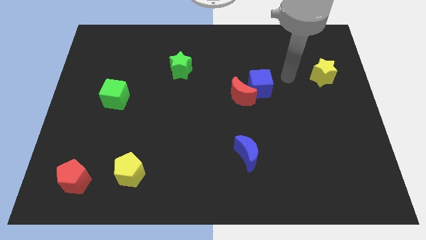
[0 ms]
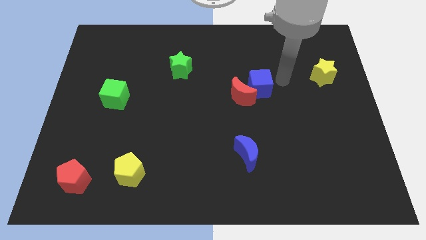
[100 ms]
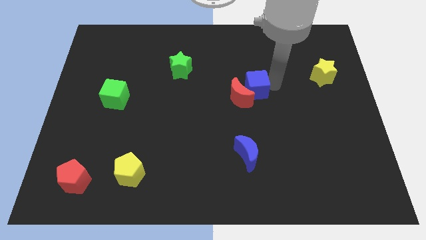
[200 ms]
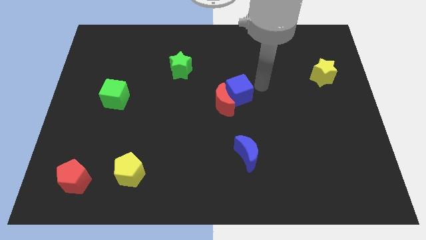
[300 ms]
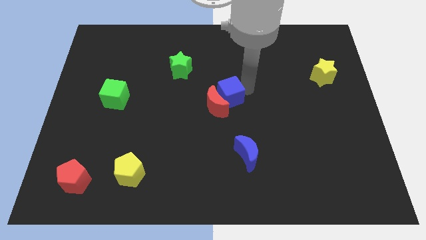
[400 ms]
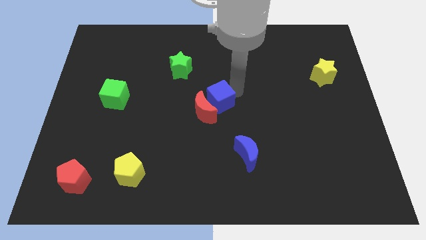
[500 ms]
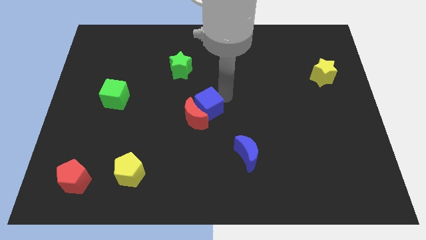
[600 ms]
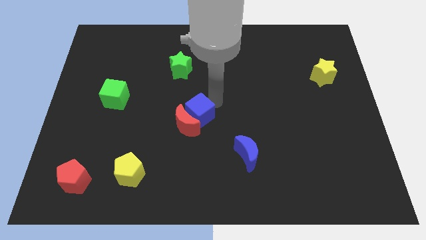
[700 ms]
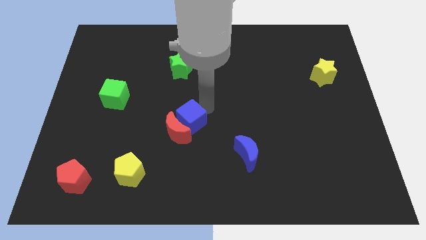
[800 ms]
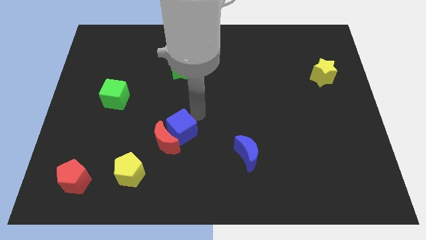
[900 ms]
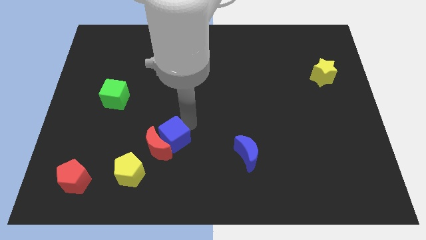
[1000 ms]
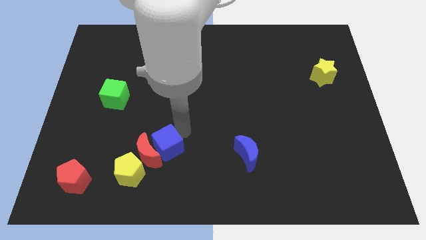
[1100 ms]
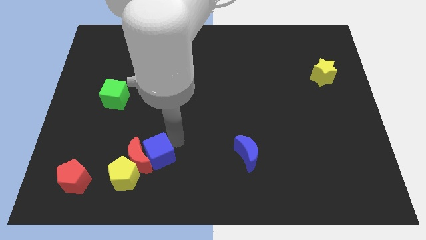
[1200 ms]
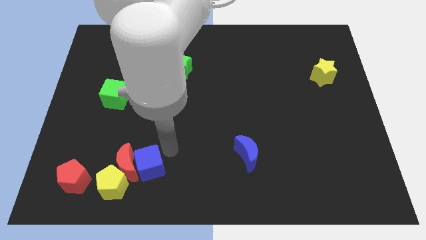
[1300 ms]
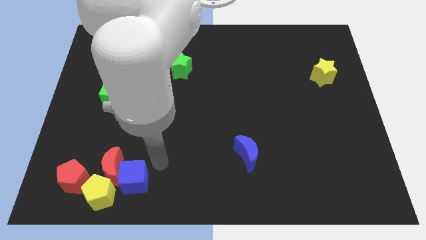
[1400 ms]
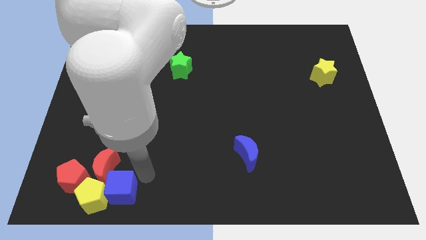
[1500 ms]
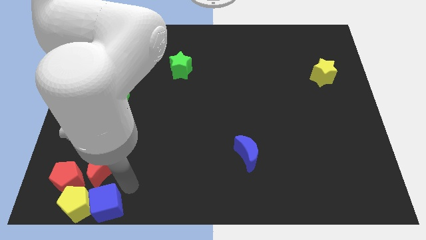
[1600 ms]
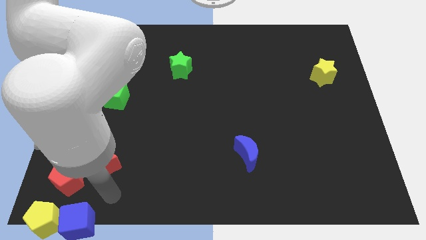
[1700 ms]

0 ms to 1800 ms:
separate the red moon from the blue cube

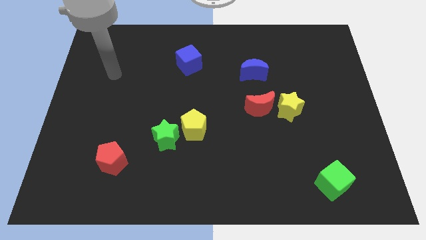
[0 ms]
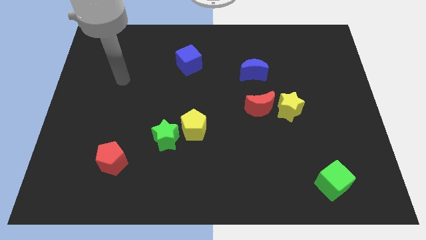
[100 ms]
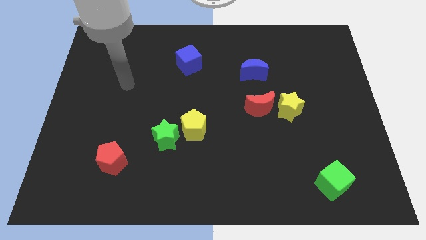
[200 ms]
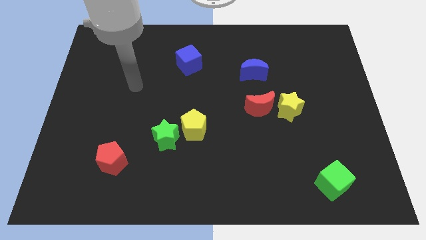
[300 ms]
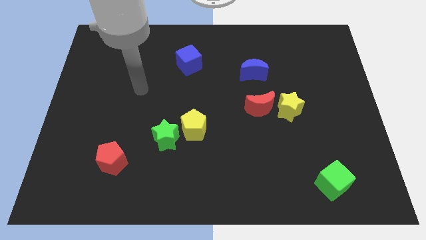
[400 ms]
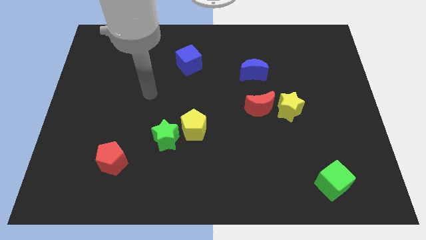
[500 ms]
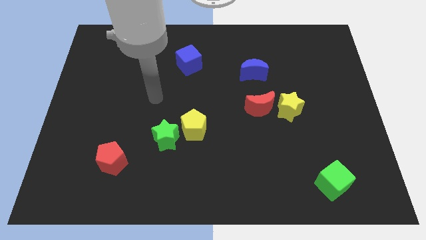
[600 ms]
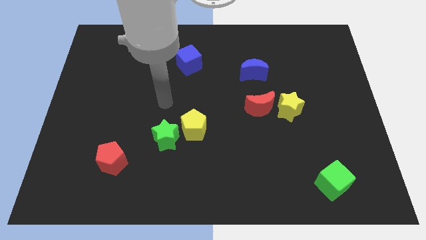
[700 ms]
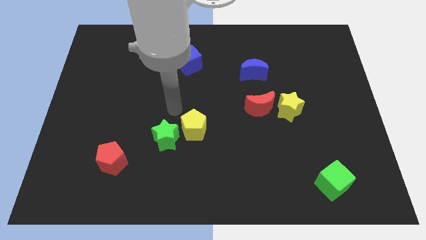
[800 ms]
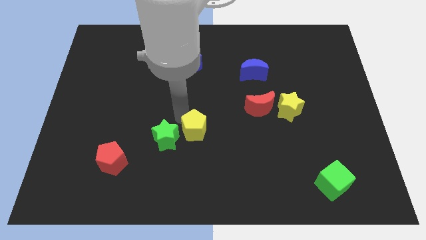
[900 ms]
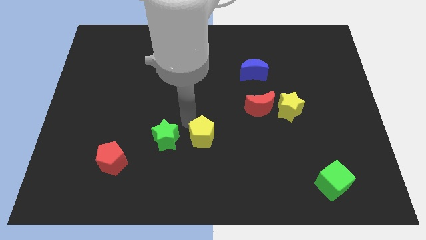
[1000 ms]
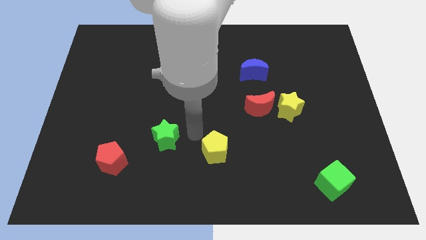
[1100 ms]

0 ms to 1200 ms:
separate the green star from the yellow pentagon

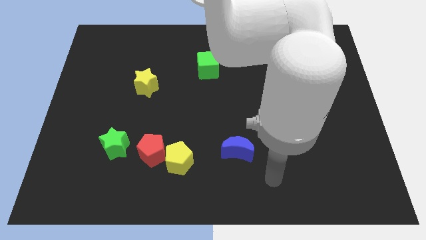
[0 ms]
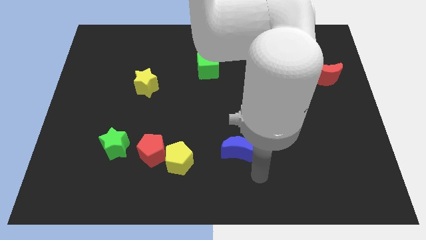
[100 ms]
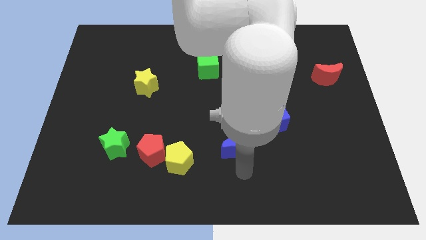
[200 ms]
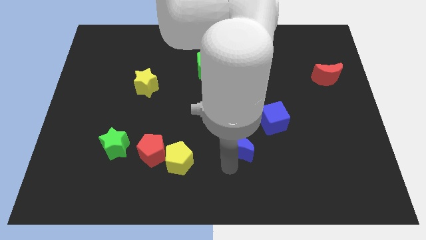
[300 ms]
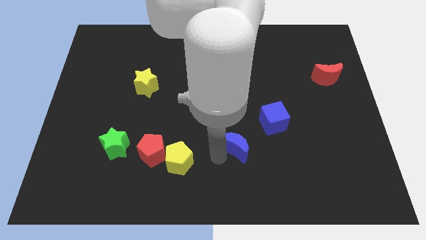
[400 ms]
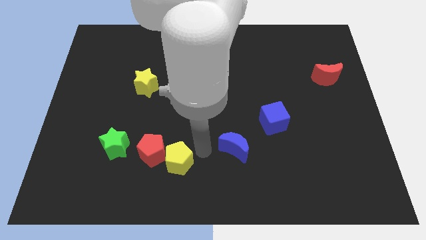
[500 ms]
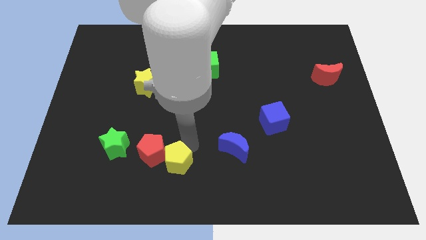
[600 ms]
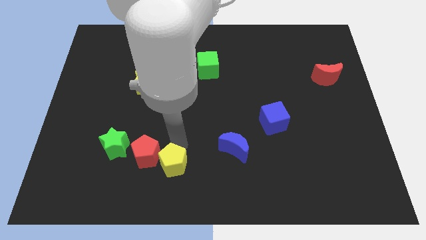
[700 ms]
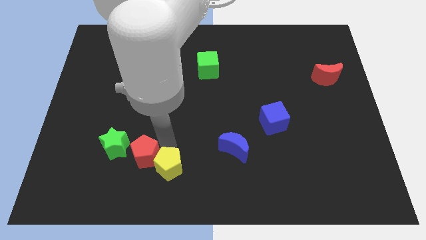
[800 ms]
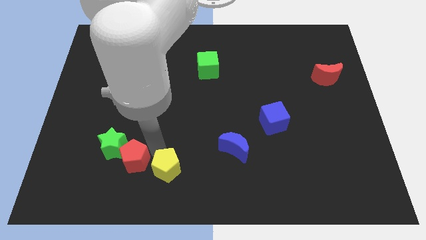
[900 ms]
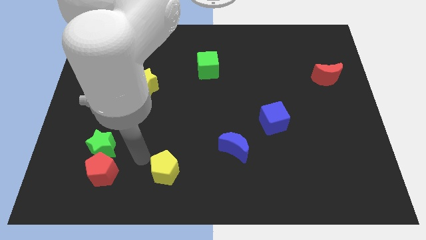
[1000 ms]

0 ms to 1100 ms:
move the yellow pentagon away from the red pentagon

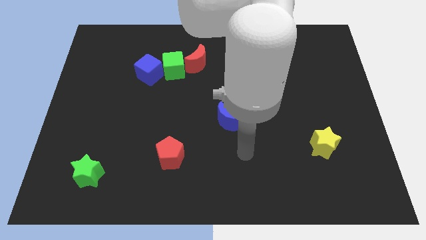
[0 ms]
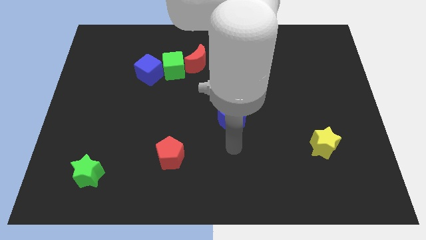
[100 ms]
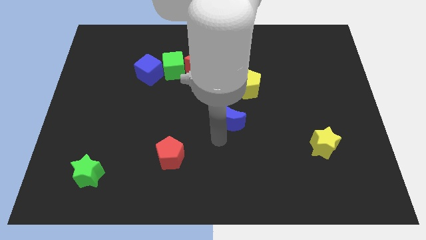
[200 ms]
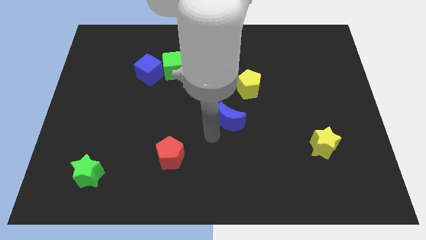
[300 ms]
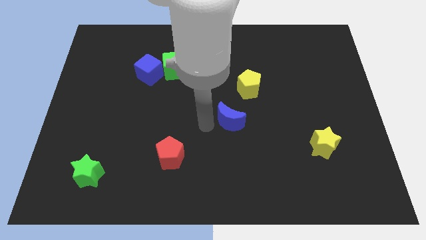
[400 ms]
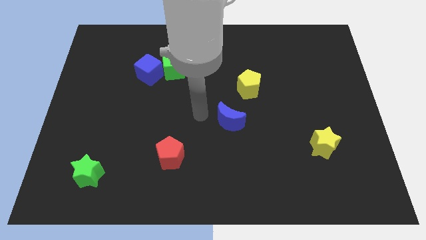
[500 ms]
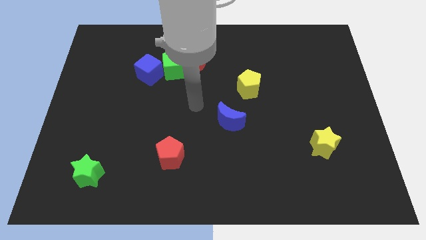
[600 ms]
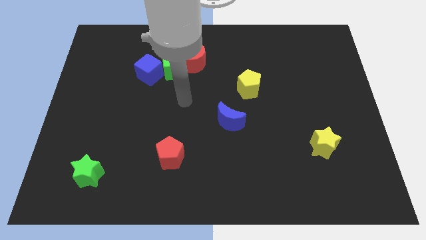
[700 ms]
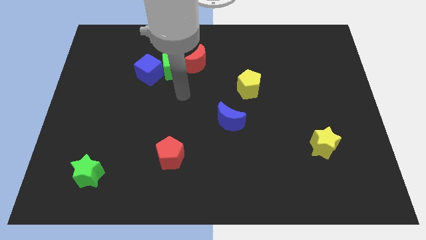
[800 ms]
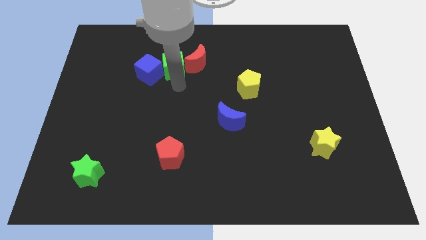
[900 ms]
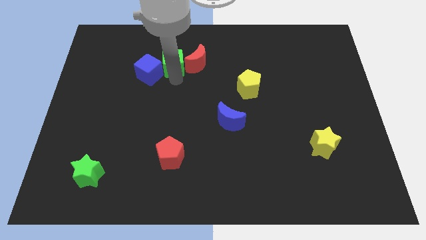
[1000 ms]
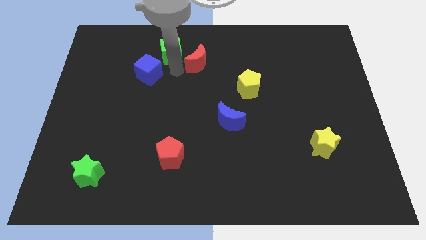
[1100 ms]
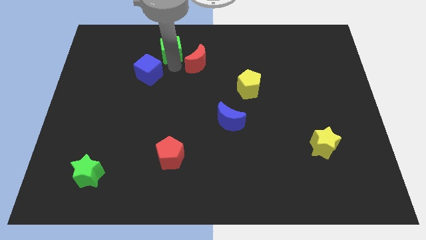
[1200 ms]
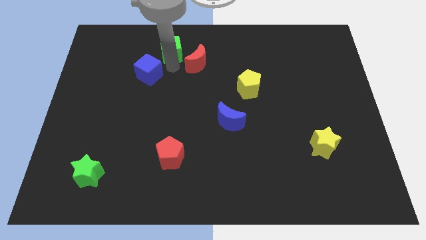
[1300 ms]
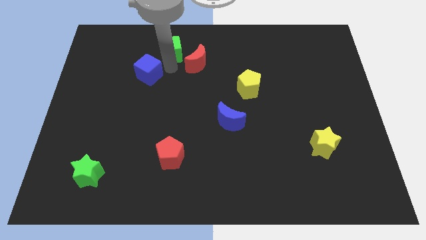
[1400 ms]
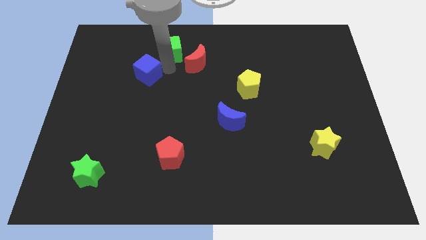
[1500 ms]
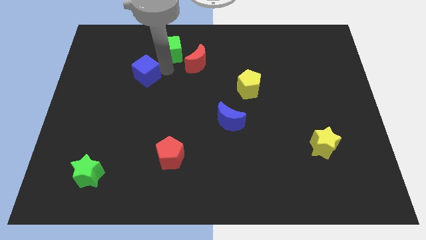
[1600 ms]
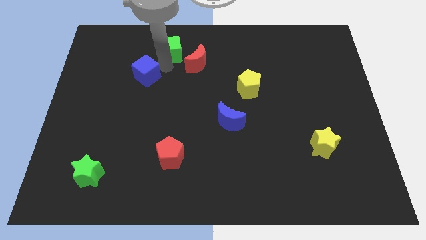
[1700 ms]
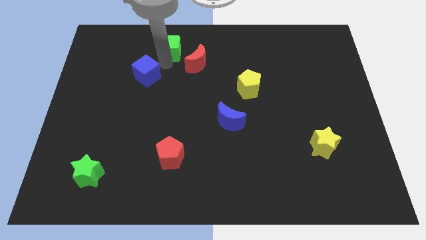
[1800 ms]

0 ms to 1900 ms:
pull the blue cube apart from the green cube

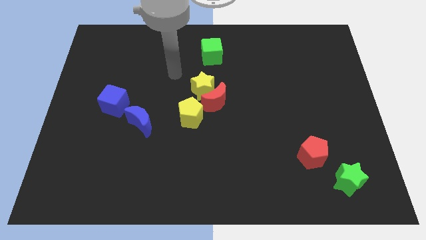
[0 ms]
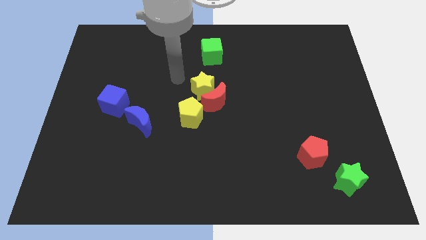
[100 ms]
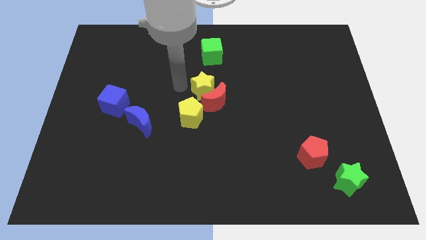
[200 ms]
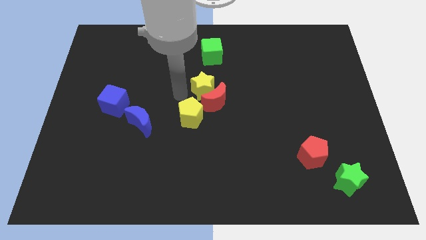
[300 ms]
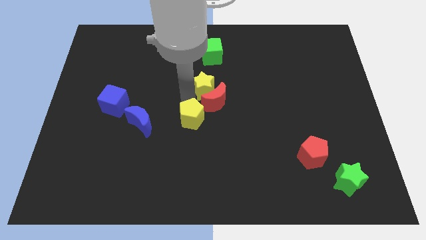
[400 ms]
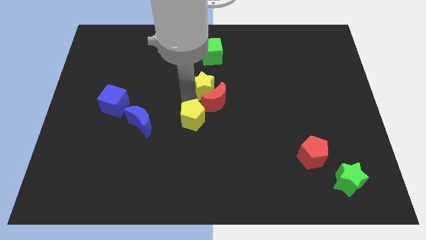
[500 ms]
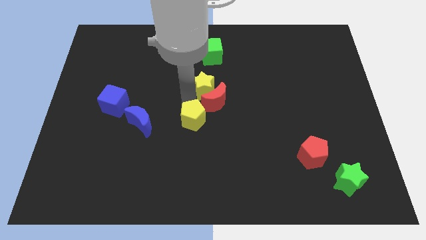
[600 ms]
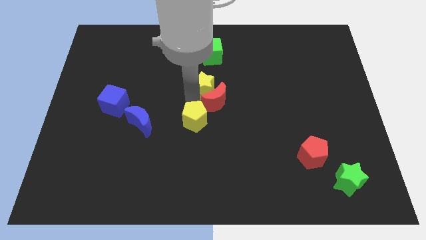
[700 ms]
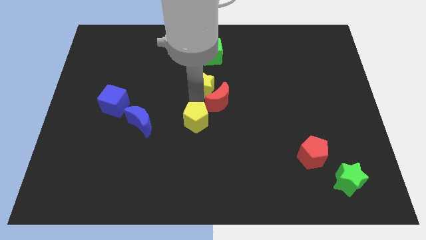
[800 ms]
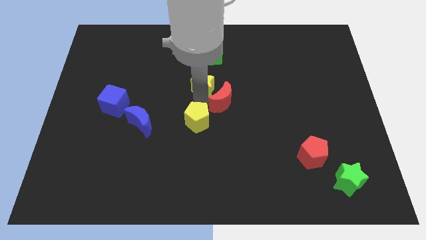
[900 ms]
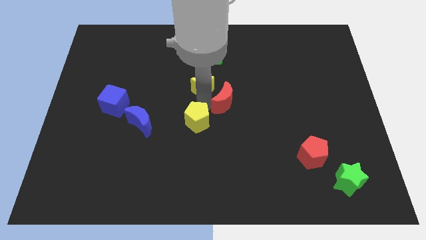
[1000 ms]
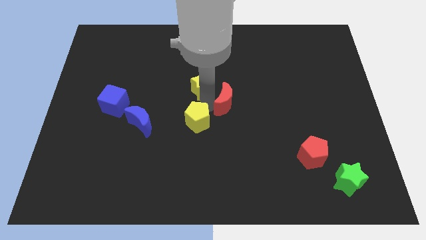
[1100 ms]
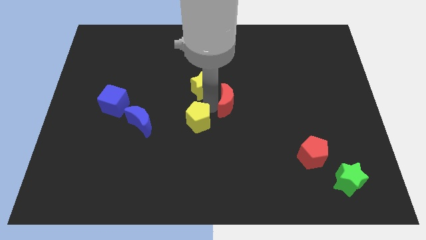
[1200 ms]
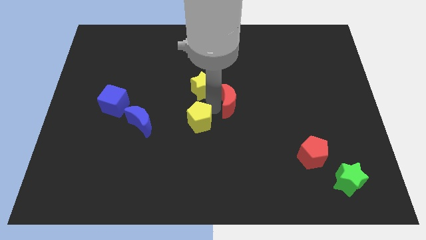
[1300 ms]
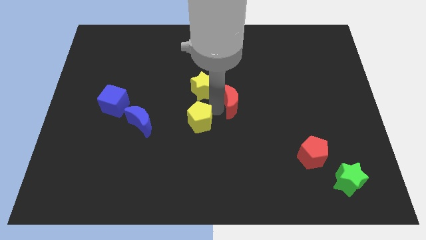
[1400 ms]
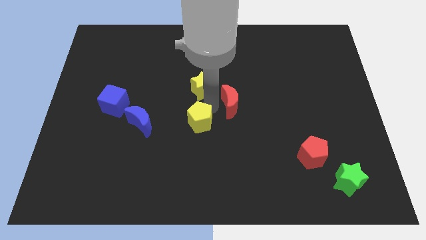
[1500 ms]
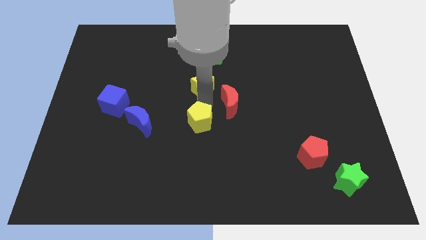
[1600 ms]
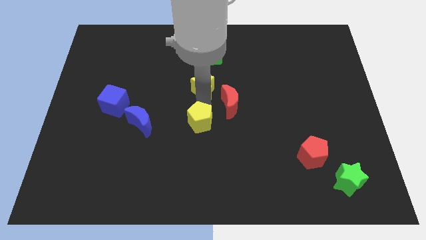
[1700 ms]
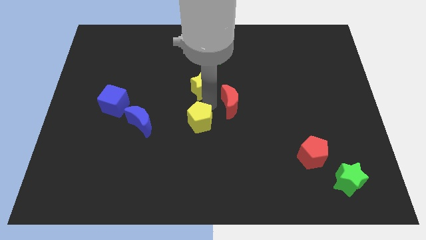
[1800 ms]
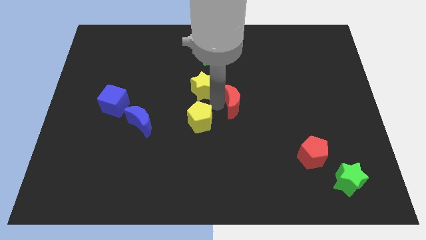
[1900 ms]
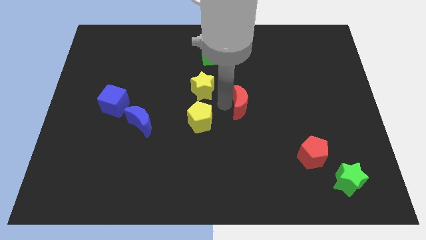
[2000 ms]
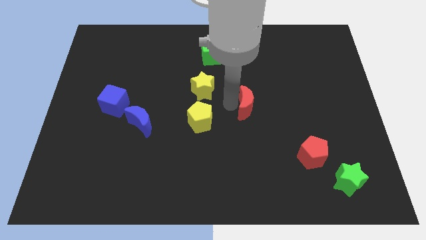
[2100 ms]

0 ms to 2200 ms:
separate the red moon from the yellow star and yellow pentagon

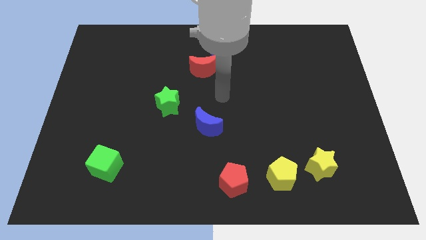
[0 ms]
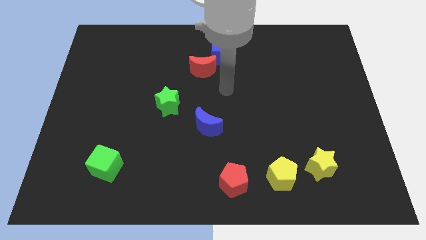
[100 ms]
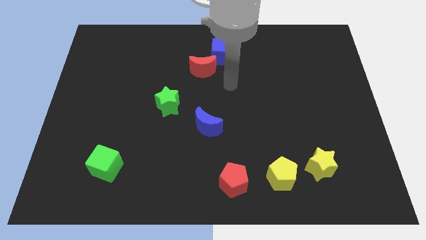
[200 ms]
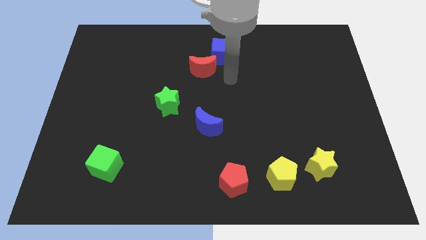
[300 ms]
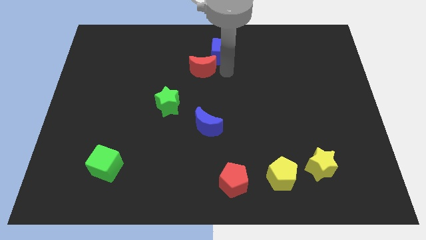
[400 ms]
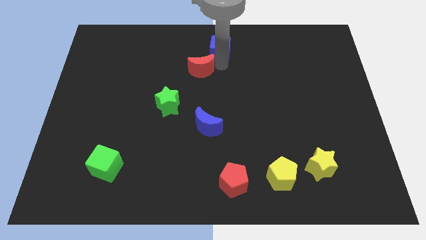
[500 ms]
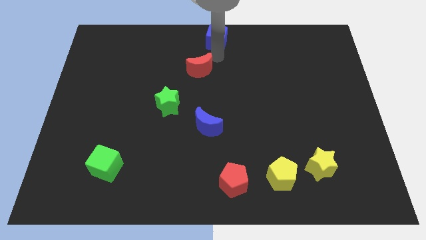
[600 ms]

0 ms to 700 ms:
pull the red moon apart from the blue cube

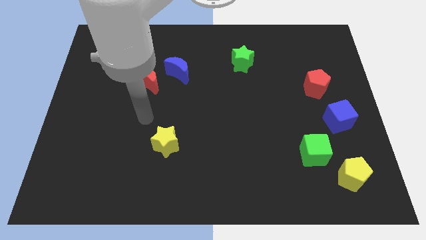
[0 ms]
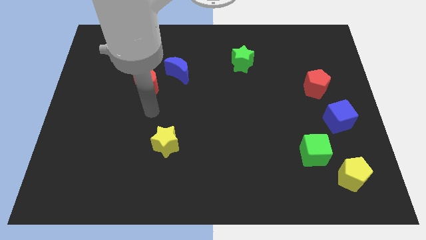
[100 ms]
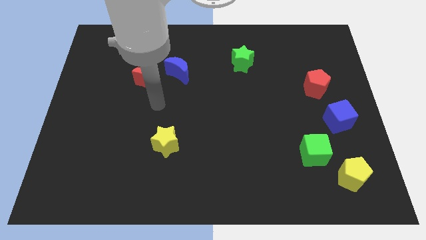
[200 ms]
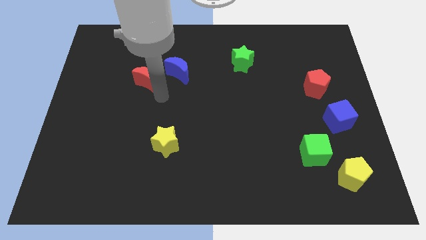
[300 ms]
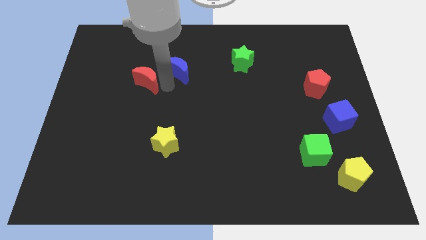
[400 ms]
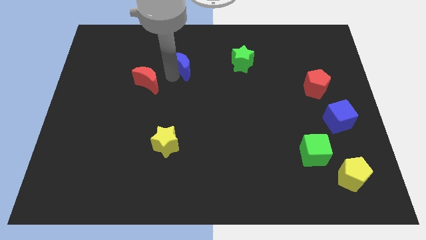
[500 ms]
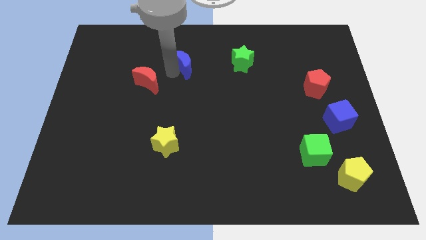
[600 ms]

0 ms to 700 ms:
separate the red moon from the blue moon
